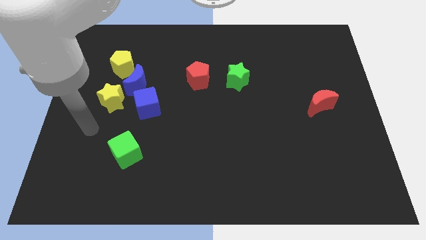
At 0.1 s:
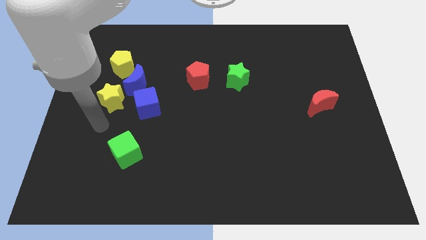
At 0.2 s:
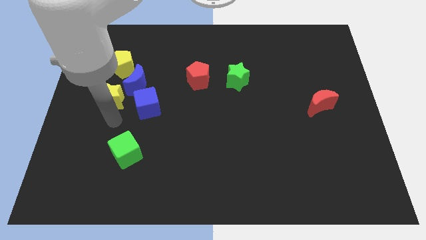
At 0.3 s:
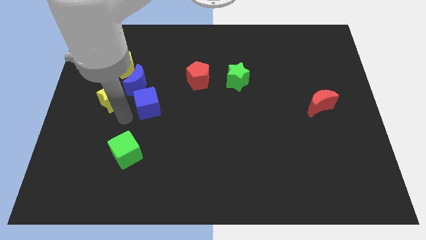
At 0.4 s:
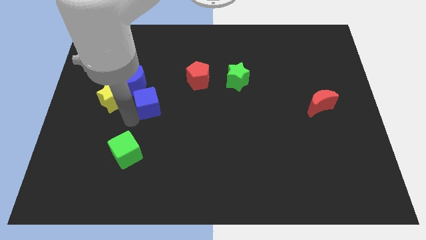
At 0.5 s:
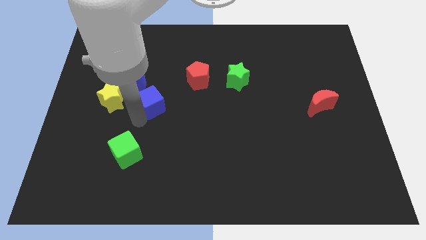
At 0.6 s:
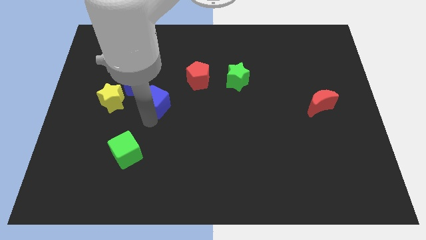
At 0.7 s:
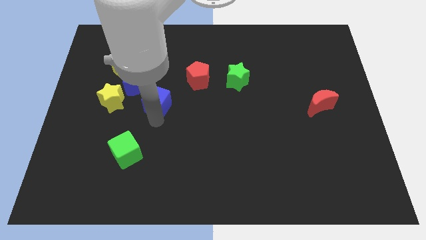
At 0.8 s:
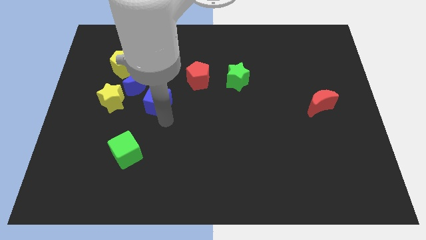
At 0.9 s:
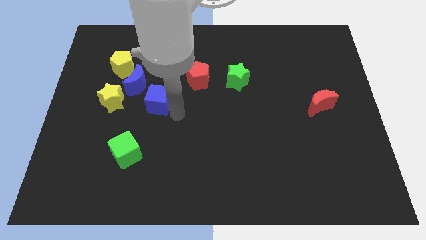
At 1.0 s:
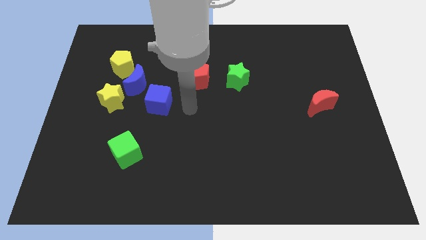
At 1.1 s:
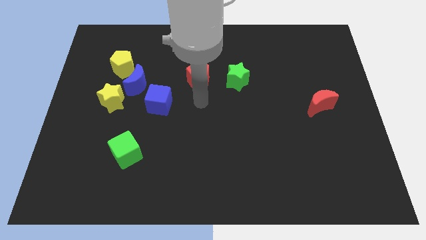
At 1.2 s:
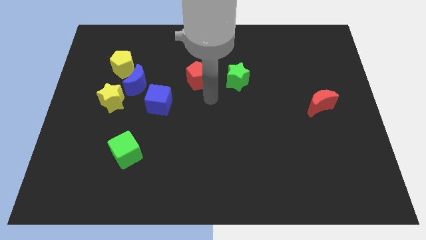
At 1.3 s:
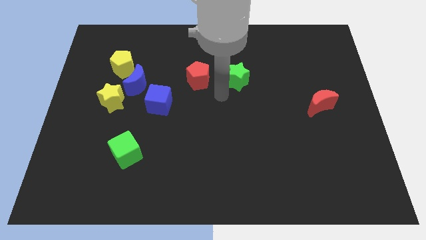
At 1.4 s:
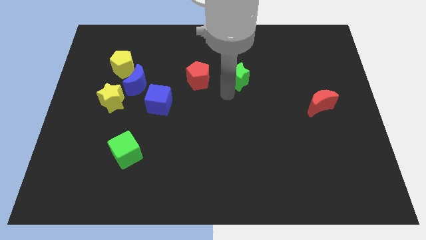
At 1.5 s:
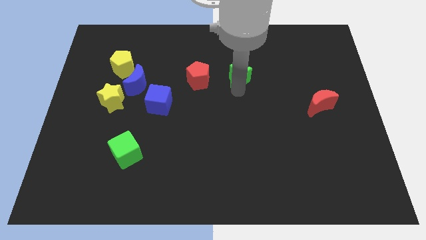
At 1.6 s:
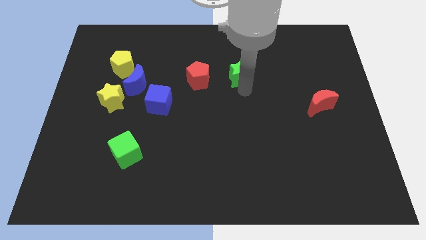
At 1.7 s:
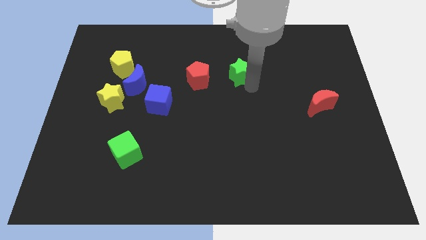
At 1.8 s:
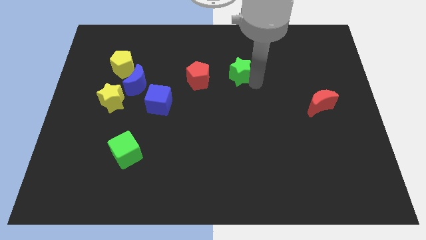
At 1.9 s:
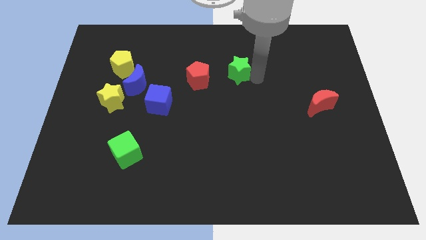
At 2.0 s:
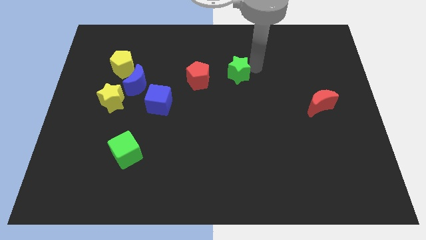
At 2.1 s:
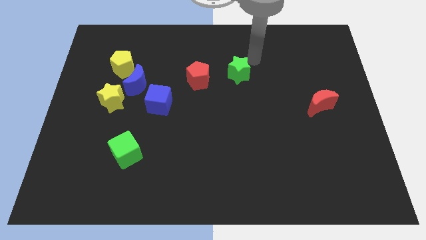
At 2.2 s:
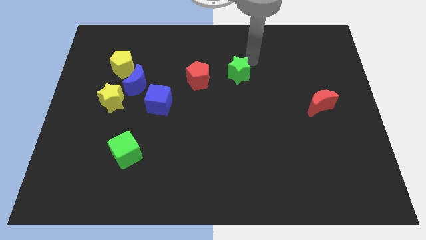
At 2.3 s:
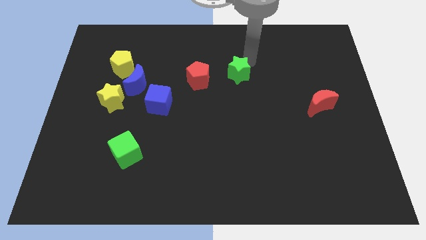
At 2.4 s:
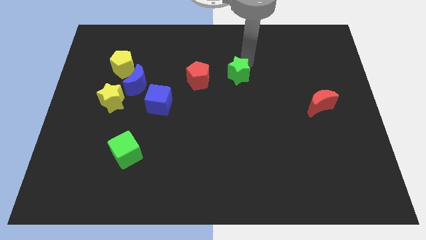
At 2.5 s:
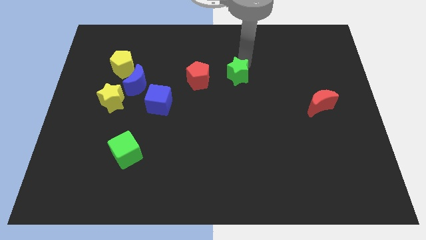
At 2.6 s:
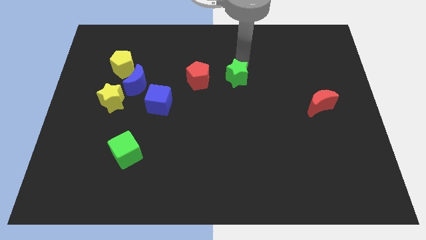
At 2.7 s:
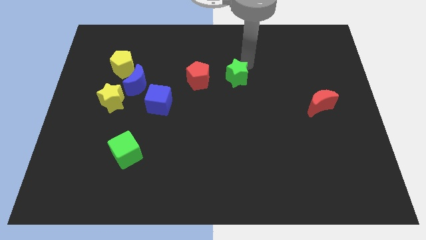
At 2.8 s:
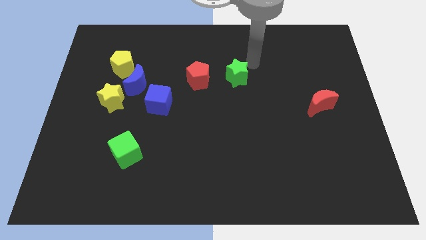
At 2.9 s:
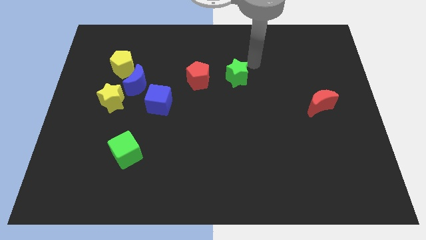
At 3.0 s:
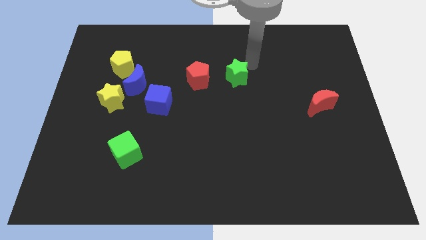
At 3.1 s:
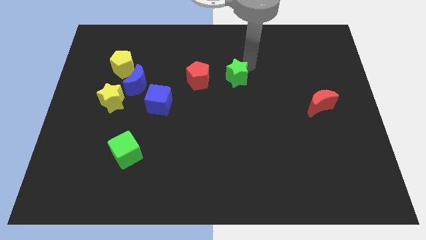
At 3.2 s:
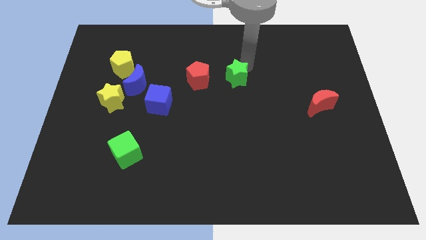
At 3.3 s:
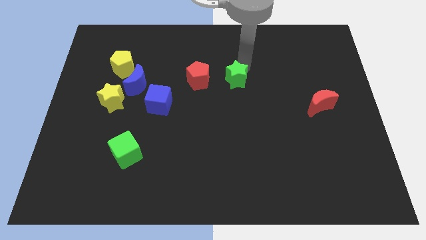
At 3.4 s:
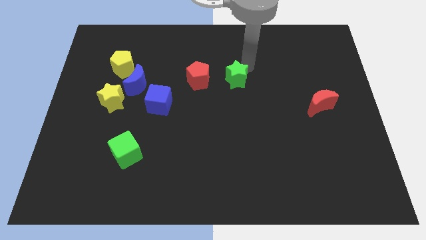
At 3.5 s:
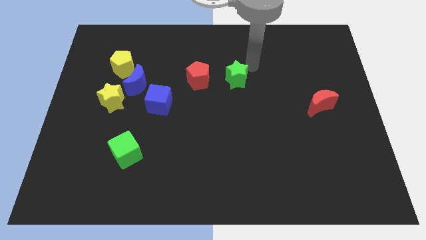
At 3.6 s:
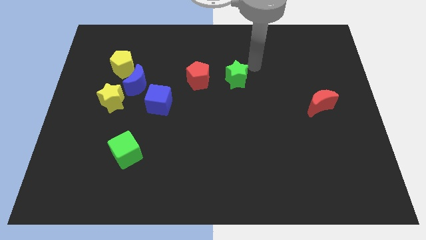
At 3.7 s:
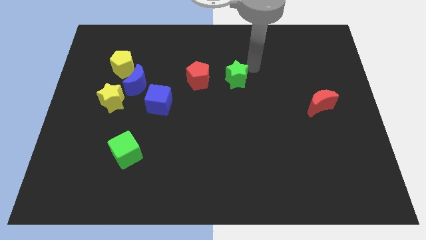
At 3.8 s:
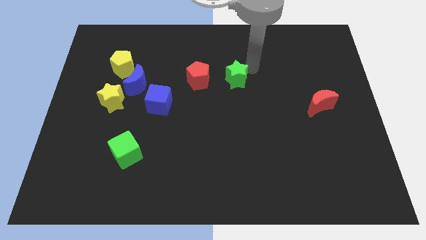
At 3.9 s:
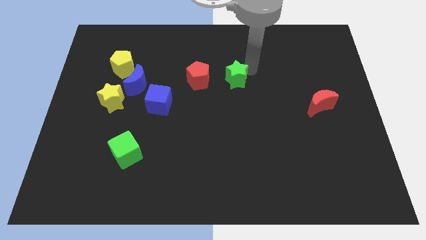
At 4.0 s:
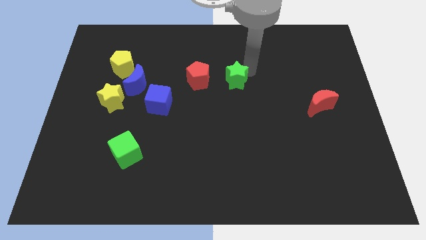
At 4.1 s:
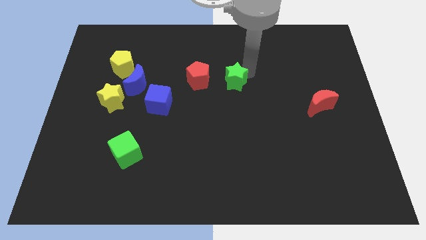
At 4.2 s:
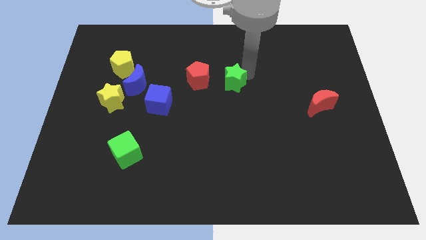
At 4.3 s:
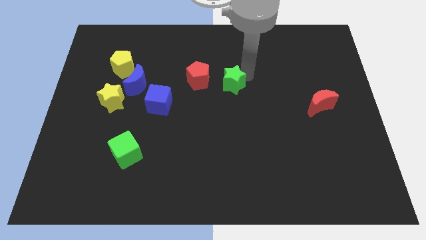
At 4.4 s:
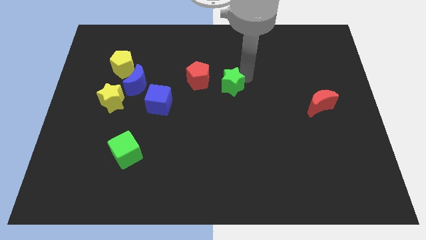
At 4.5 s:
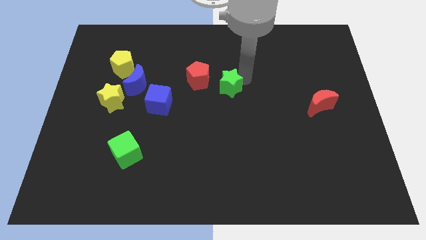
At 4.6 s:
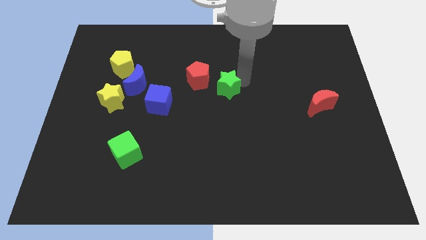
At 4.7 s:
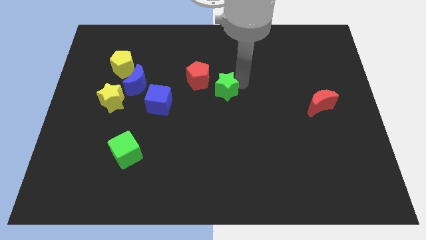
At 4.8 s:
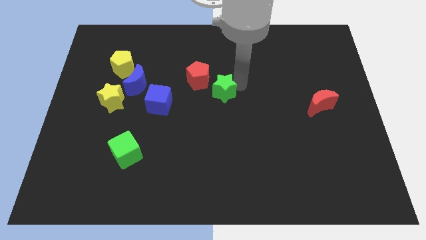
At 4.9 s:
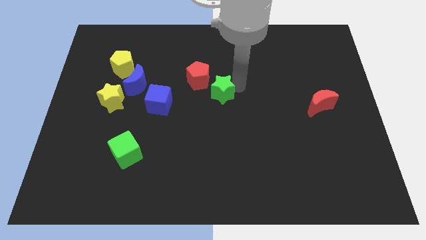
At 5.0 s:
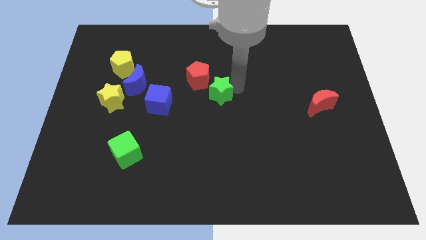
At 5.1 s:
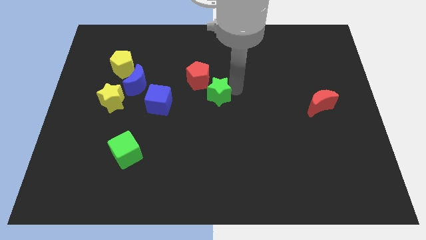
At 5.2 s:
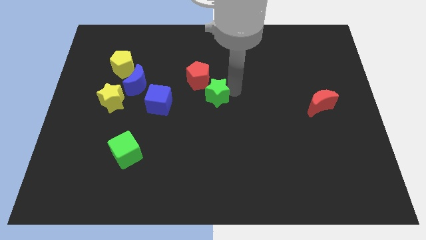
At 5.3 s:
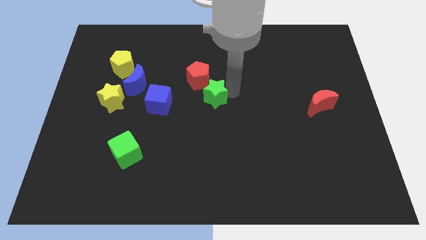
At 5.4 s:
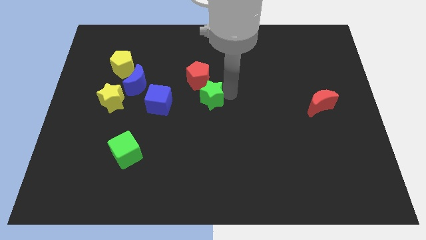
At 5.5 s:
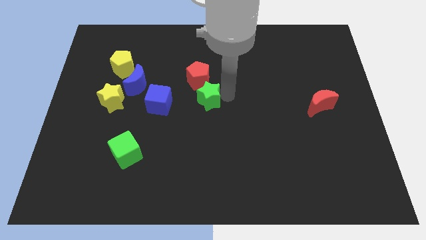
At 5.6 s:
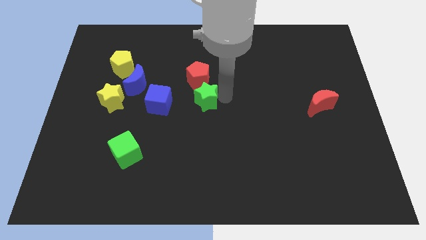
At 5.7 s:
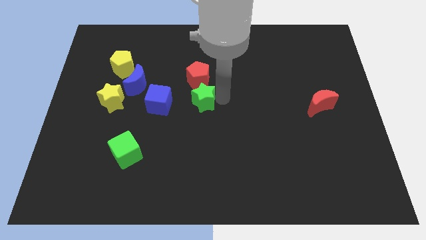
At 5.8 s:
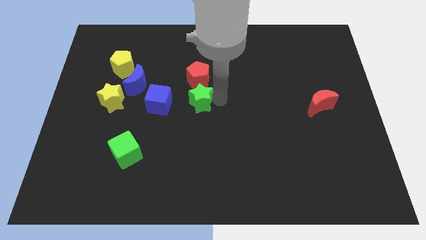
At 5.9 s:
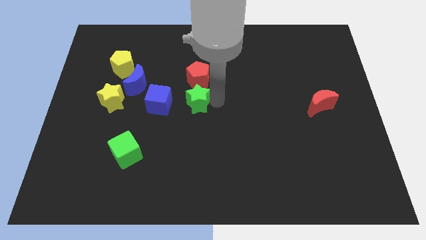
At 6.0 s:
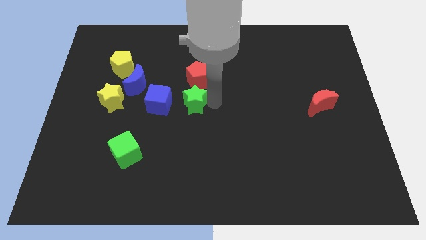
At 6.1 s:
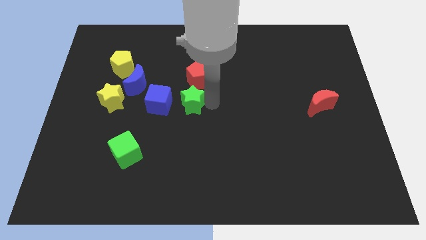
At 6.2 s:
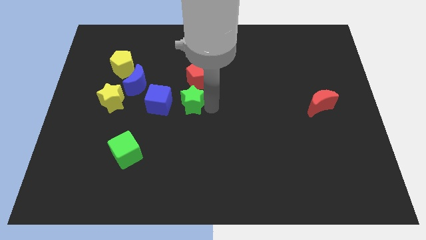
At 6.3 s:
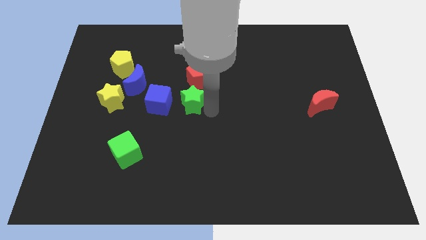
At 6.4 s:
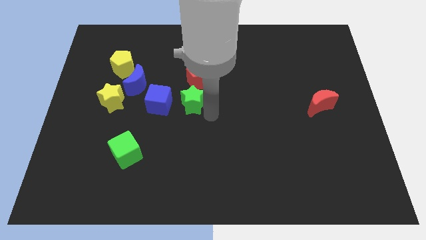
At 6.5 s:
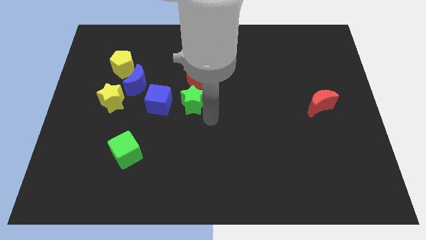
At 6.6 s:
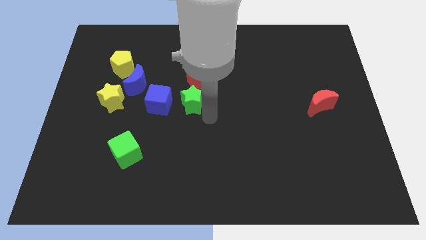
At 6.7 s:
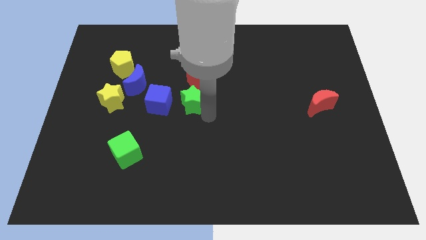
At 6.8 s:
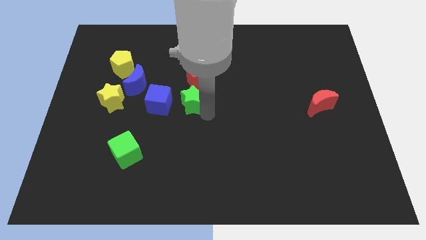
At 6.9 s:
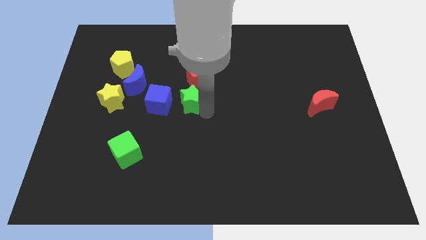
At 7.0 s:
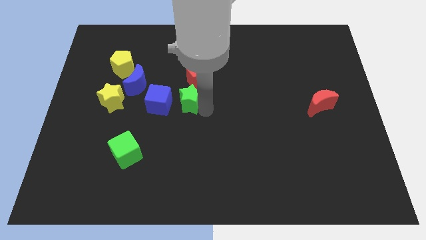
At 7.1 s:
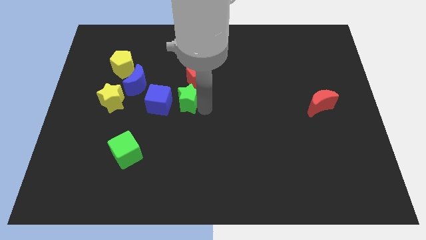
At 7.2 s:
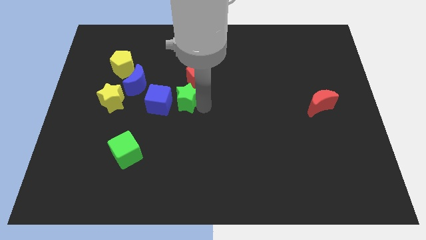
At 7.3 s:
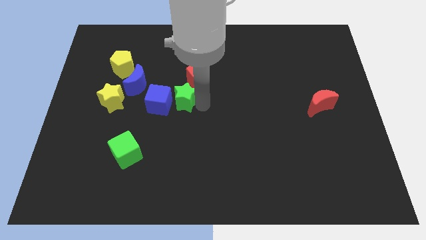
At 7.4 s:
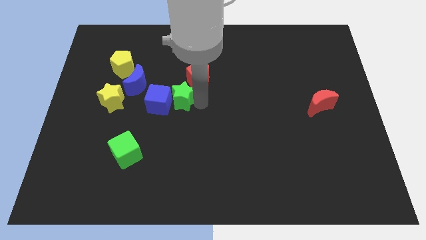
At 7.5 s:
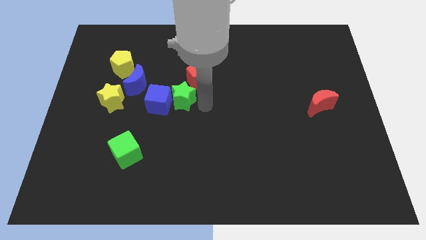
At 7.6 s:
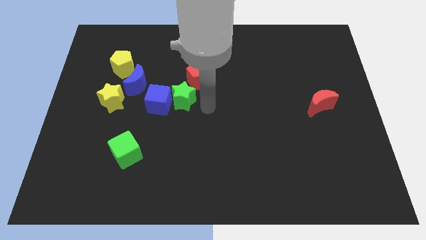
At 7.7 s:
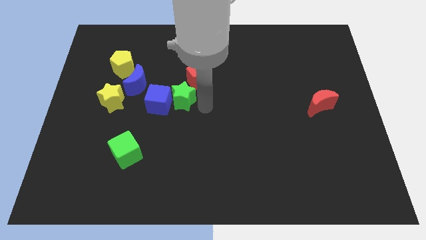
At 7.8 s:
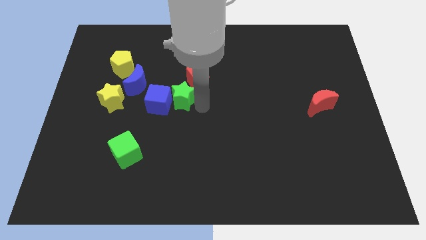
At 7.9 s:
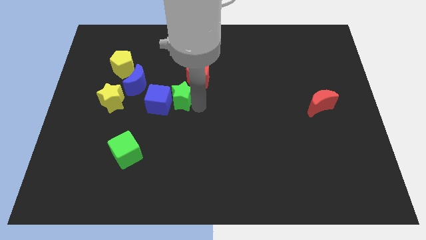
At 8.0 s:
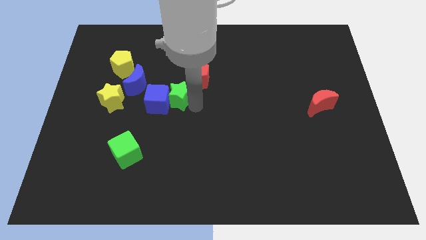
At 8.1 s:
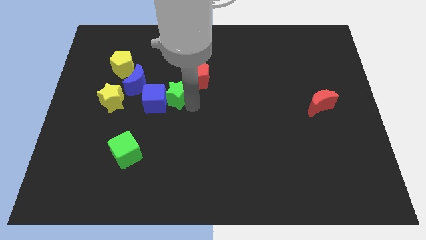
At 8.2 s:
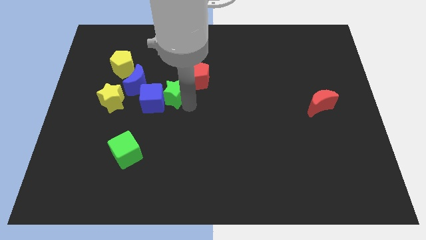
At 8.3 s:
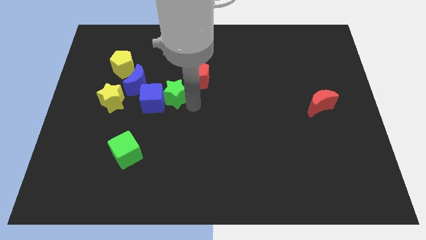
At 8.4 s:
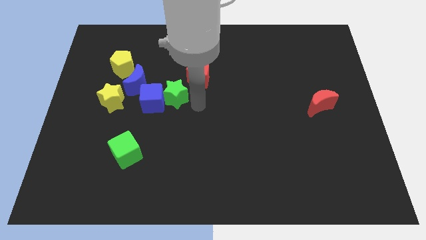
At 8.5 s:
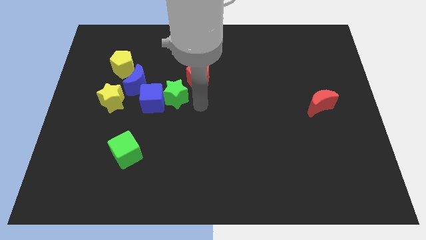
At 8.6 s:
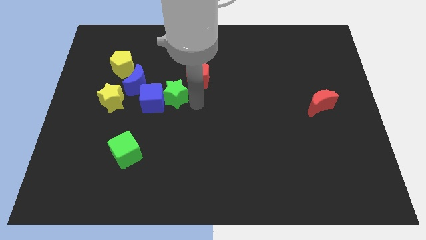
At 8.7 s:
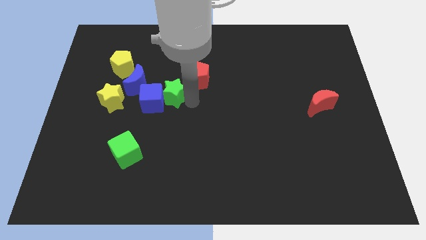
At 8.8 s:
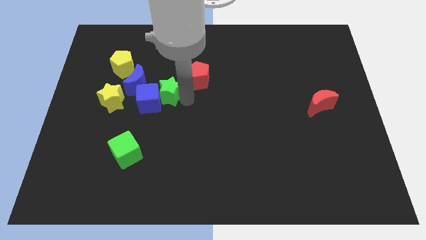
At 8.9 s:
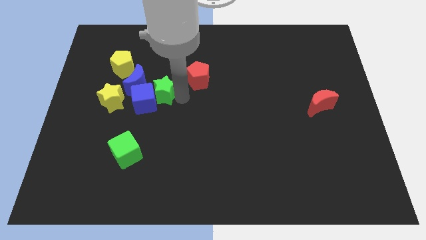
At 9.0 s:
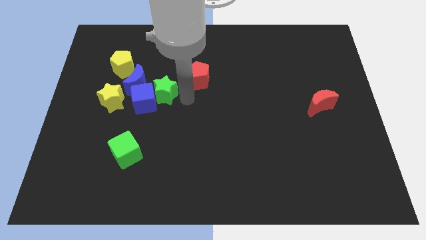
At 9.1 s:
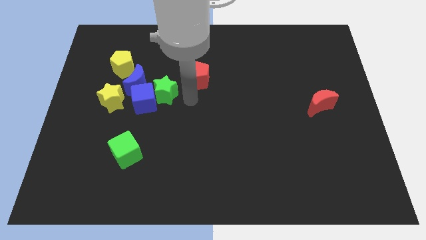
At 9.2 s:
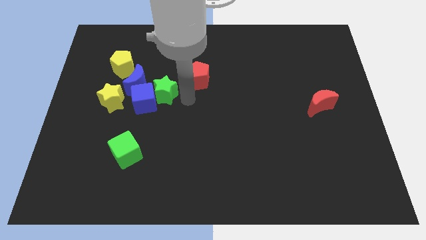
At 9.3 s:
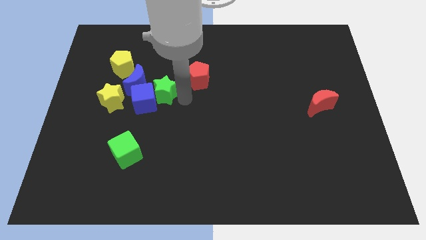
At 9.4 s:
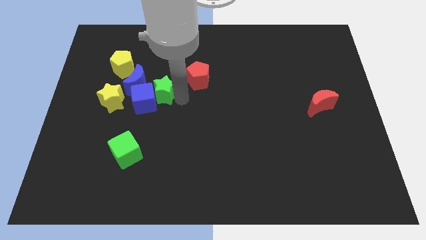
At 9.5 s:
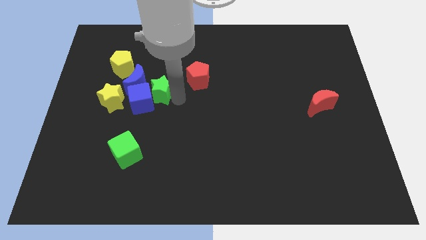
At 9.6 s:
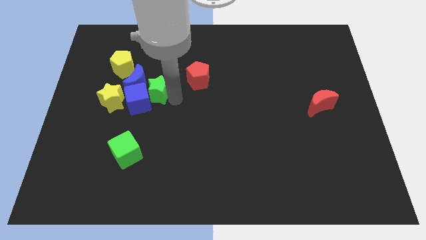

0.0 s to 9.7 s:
move the green star to the blue moon
